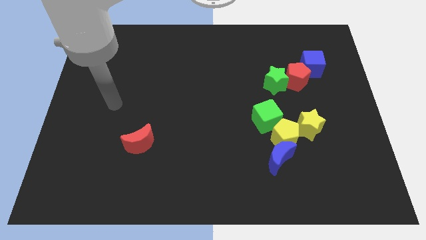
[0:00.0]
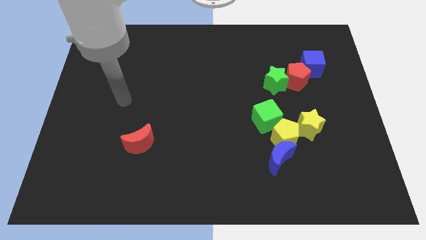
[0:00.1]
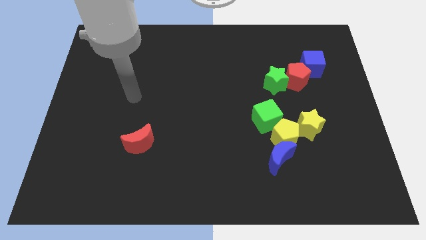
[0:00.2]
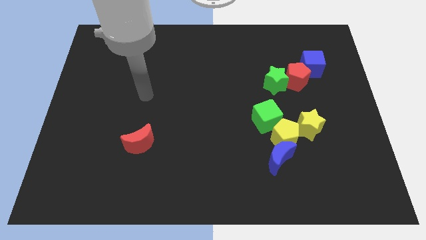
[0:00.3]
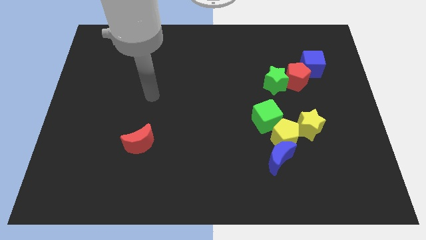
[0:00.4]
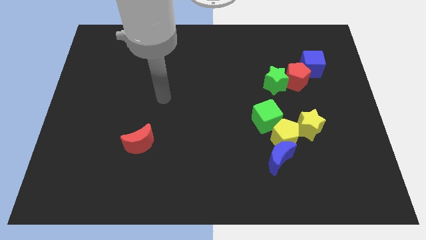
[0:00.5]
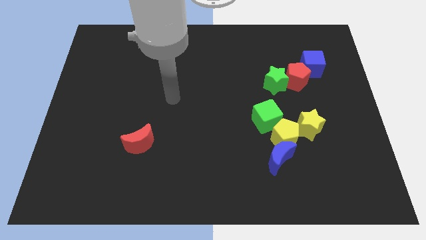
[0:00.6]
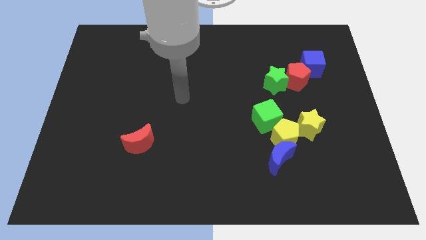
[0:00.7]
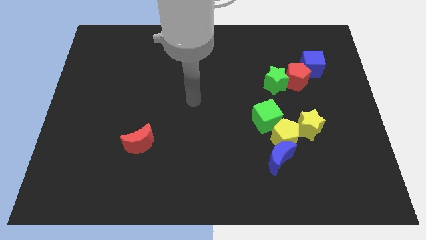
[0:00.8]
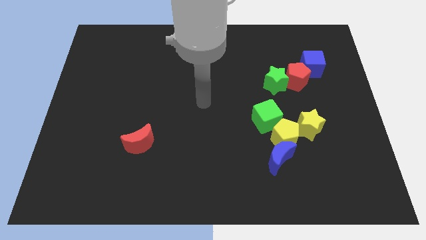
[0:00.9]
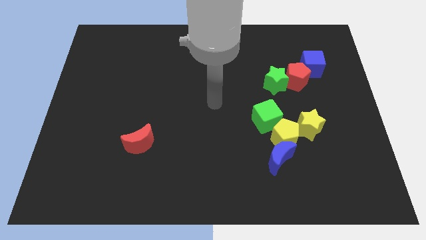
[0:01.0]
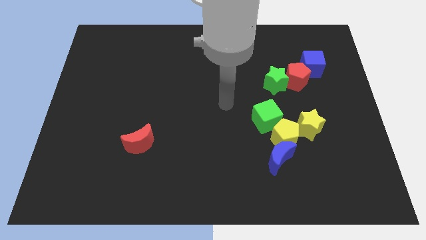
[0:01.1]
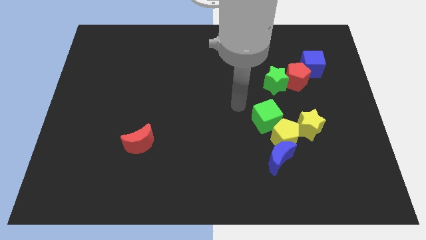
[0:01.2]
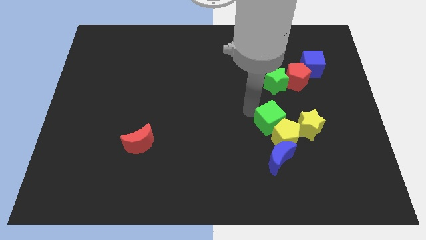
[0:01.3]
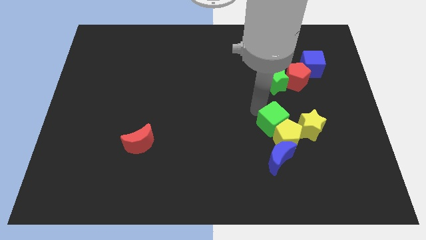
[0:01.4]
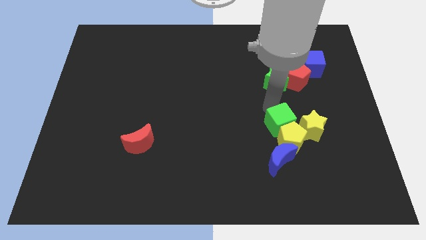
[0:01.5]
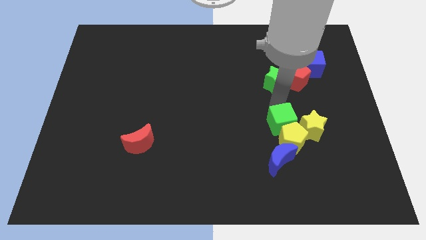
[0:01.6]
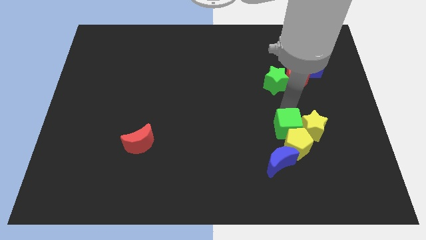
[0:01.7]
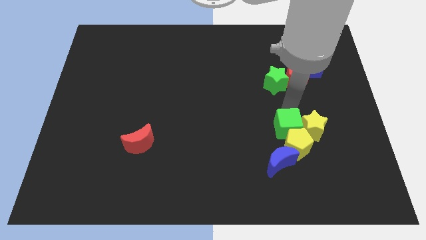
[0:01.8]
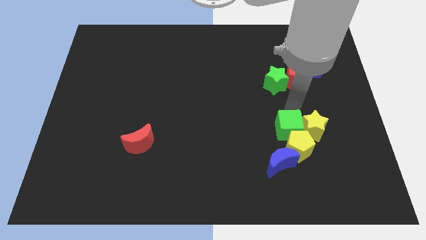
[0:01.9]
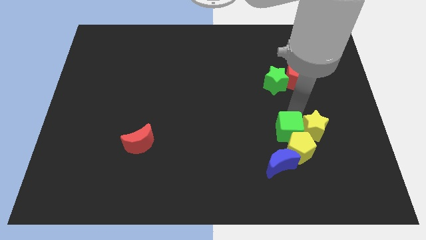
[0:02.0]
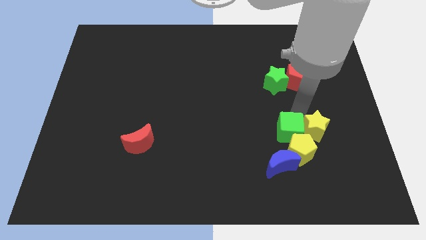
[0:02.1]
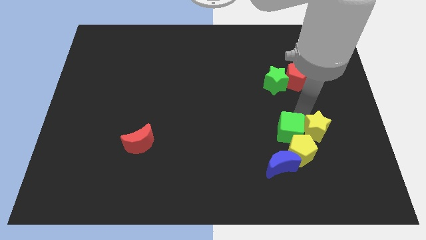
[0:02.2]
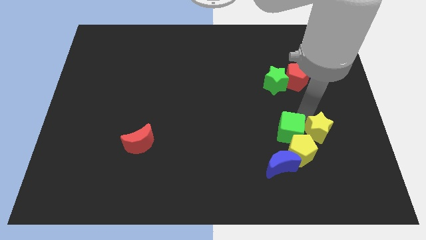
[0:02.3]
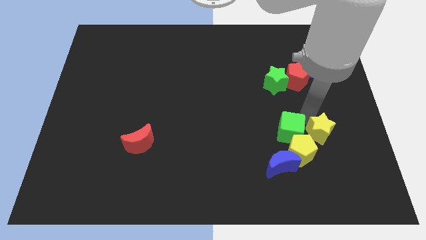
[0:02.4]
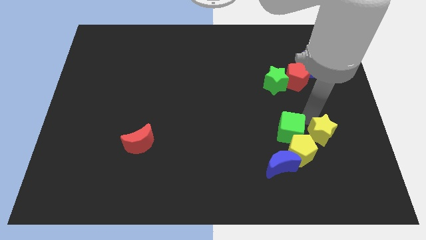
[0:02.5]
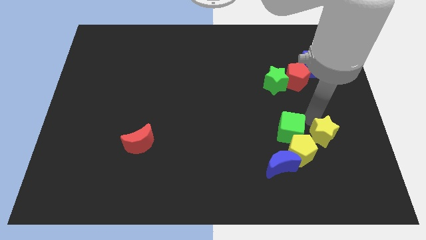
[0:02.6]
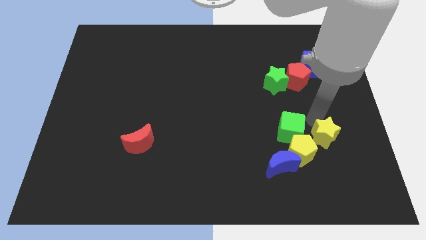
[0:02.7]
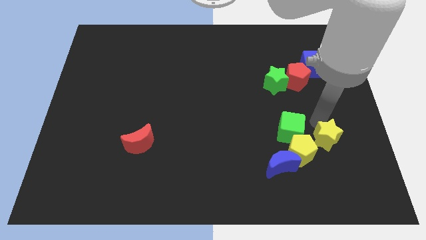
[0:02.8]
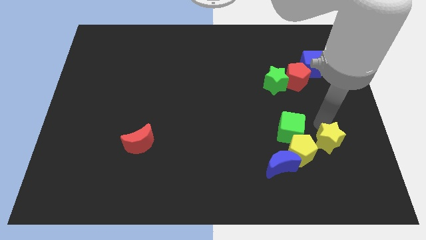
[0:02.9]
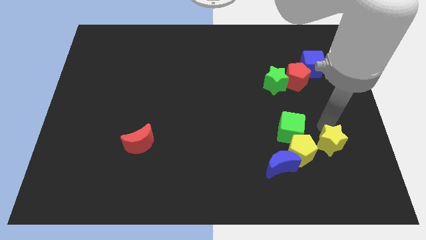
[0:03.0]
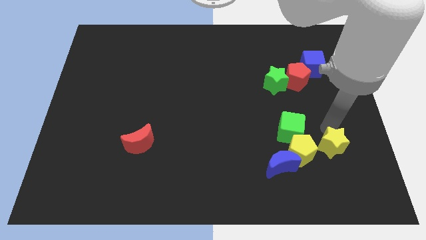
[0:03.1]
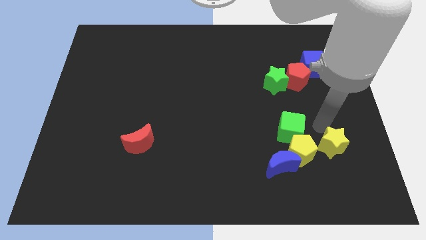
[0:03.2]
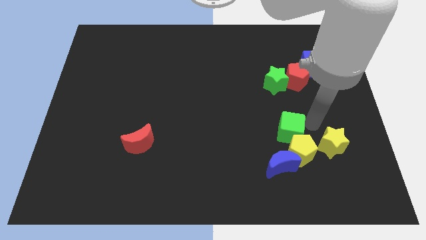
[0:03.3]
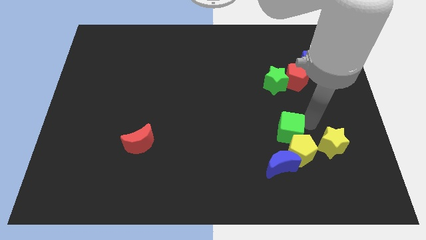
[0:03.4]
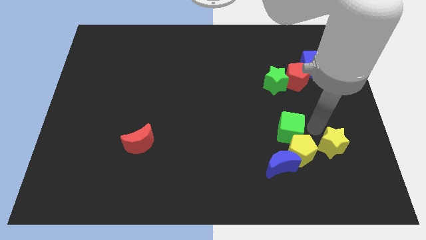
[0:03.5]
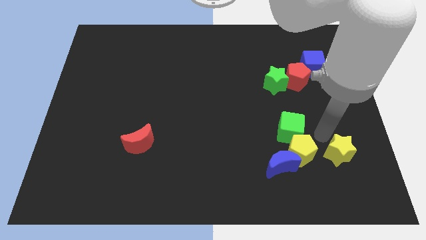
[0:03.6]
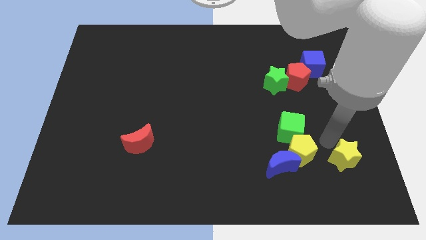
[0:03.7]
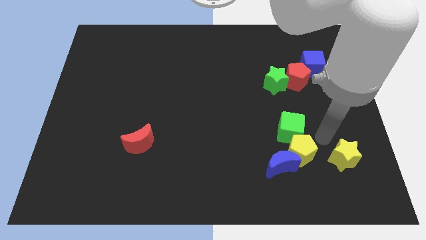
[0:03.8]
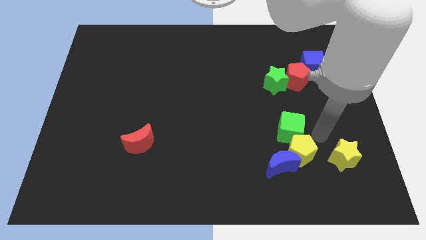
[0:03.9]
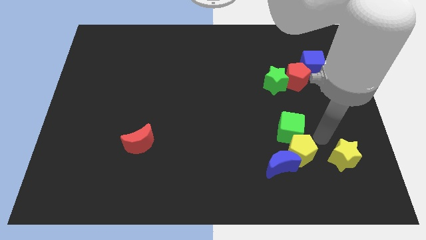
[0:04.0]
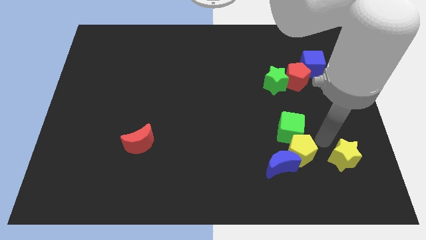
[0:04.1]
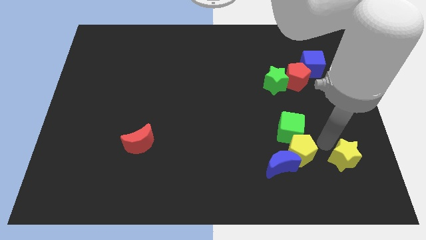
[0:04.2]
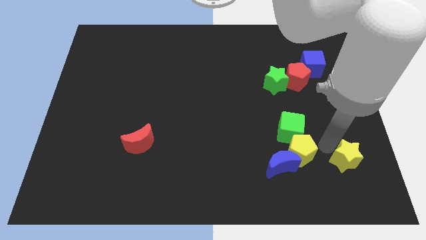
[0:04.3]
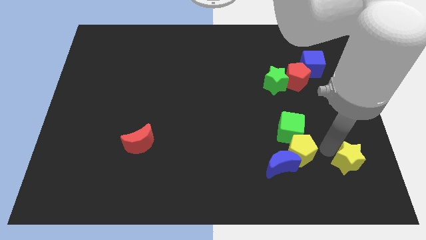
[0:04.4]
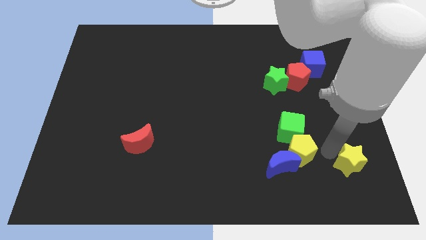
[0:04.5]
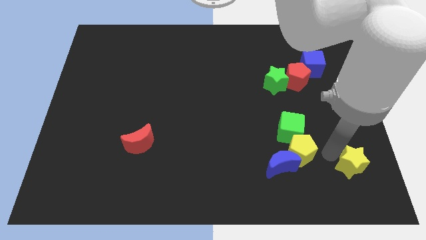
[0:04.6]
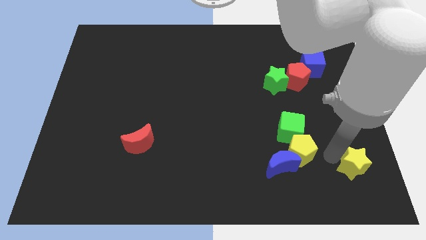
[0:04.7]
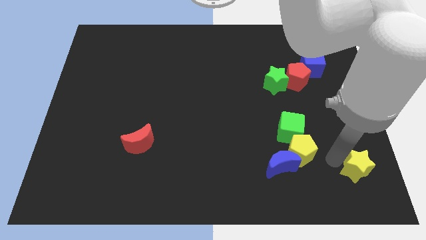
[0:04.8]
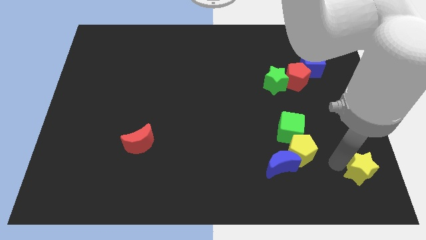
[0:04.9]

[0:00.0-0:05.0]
move the yellow star to the lower right corner

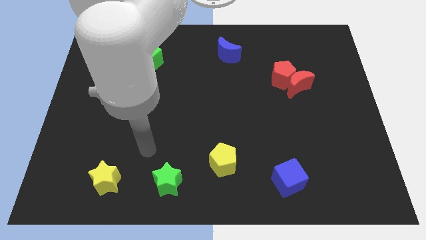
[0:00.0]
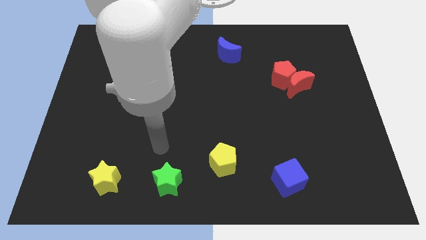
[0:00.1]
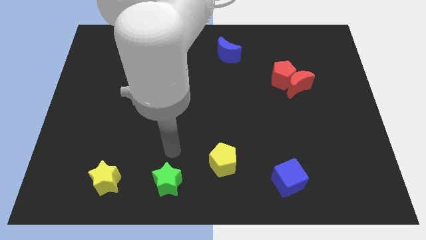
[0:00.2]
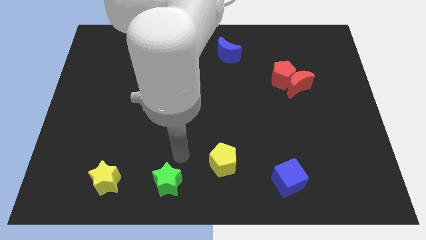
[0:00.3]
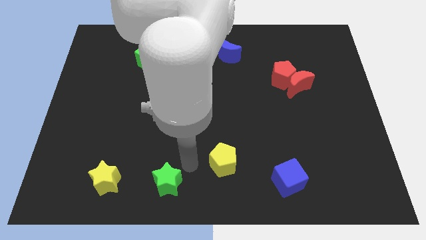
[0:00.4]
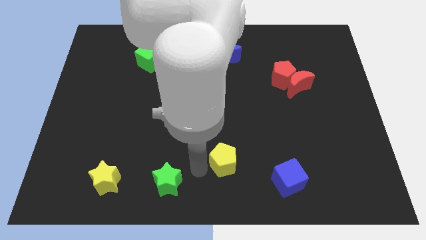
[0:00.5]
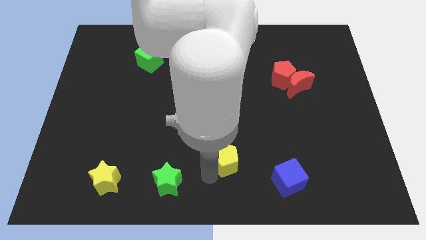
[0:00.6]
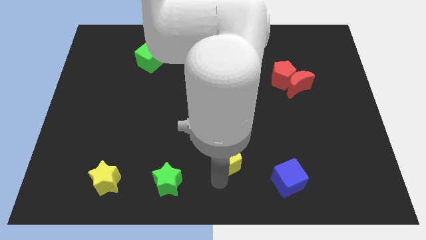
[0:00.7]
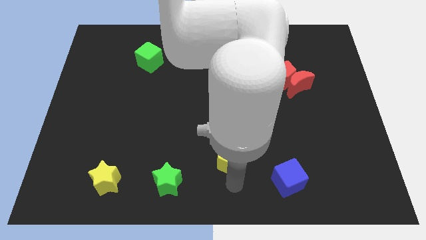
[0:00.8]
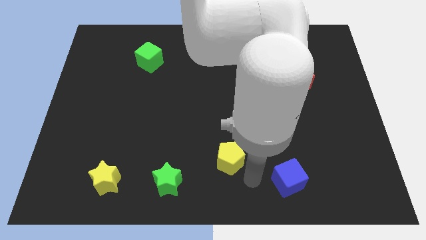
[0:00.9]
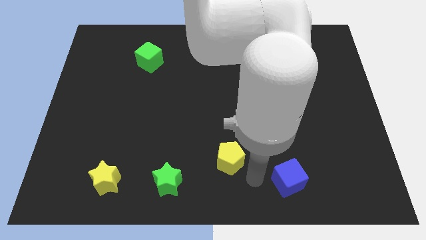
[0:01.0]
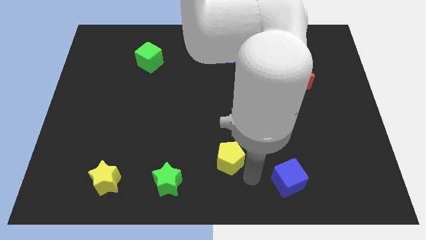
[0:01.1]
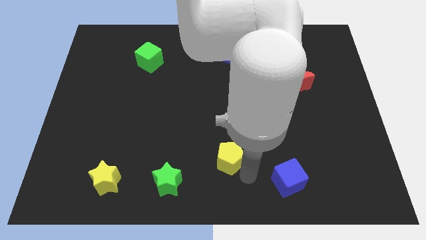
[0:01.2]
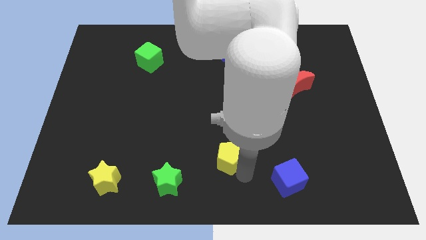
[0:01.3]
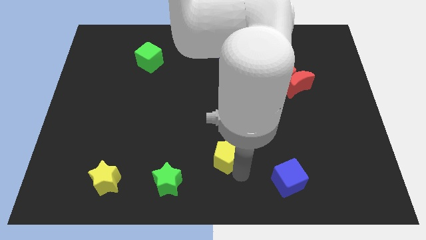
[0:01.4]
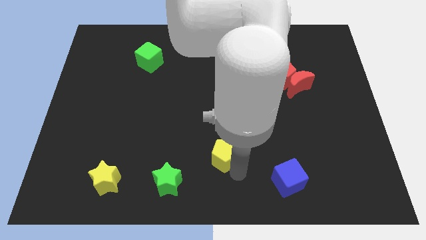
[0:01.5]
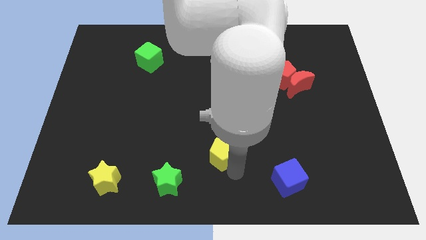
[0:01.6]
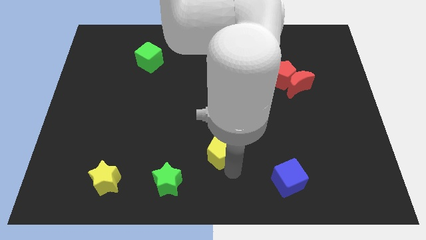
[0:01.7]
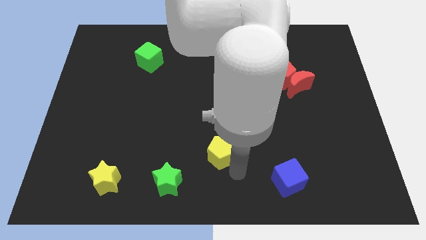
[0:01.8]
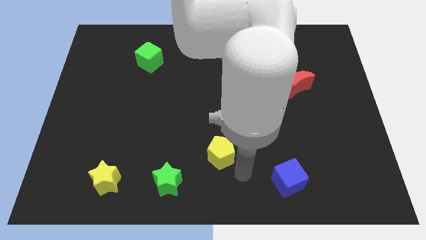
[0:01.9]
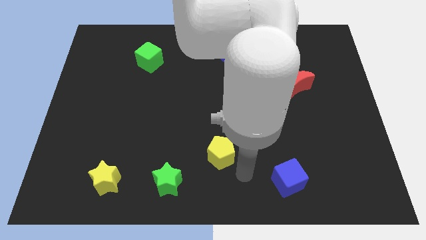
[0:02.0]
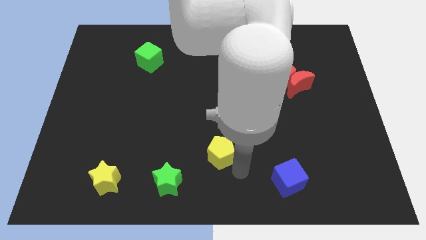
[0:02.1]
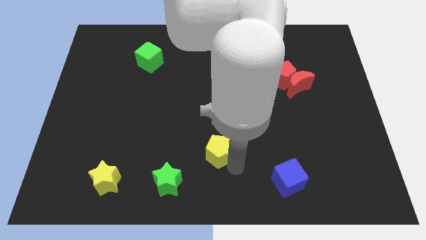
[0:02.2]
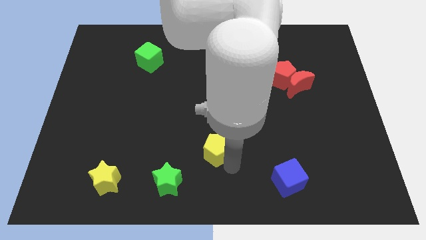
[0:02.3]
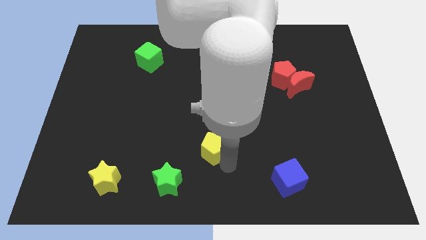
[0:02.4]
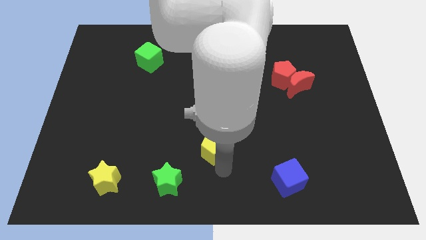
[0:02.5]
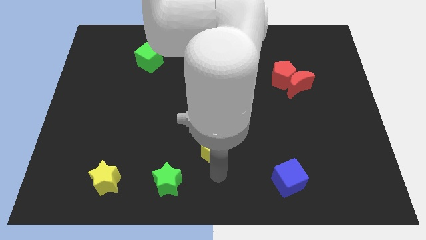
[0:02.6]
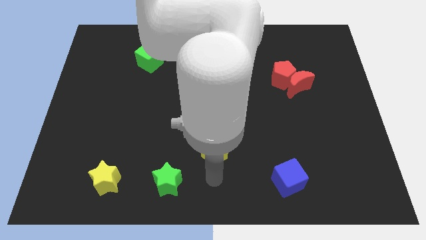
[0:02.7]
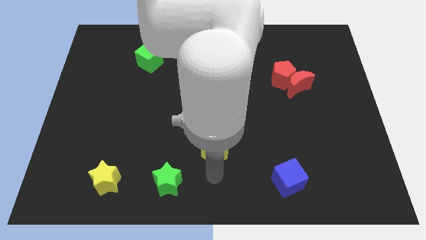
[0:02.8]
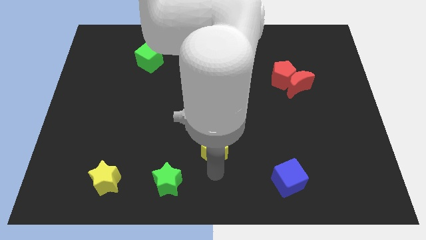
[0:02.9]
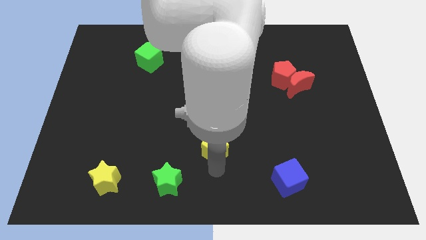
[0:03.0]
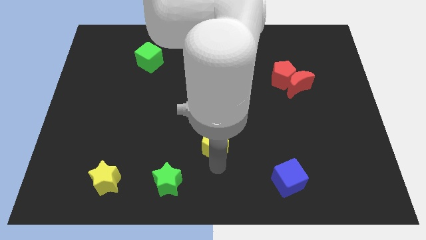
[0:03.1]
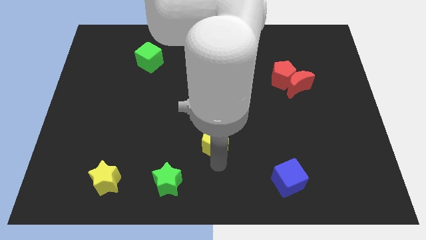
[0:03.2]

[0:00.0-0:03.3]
put the yellow pentagon to the center
